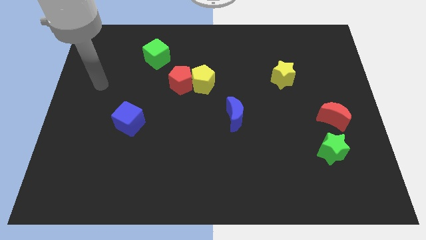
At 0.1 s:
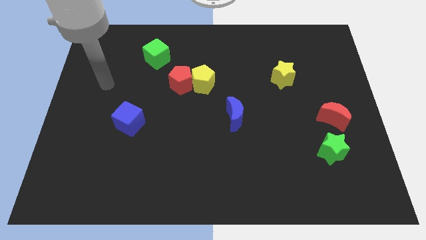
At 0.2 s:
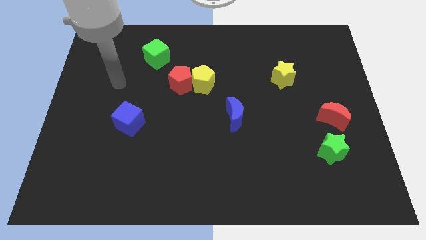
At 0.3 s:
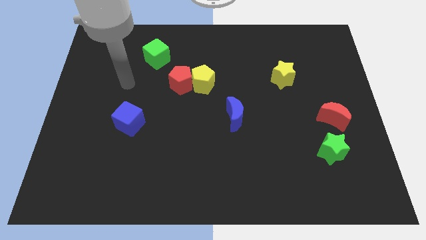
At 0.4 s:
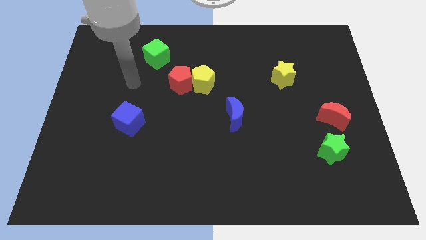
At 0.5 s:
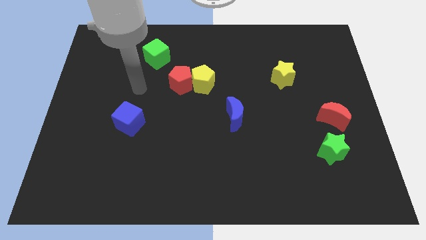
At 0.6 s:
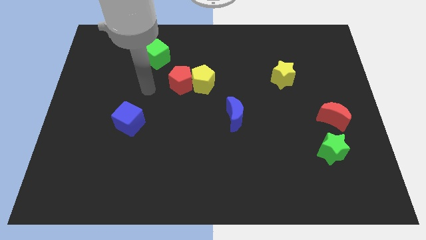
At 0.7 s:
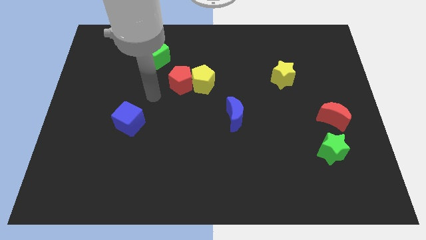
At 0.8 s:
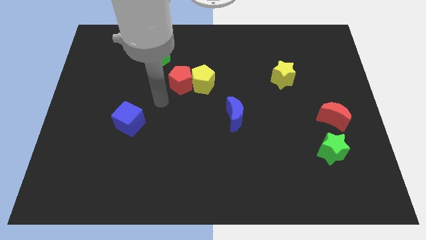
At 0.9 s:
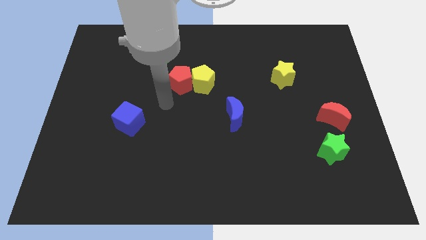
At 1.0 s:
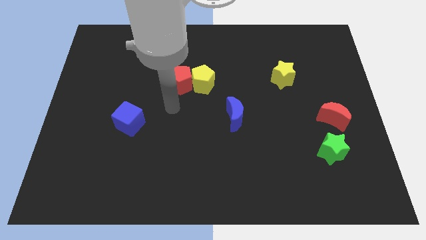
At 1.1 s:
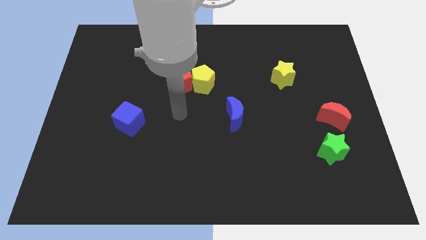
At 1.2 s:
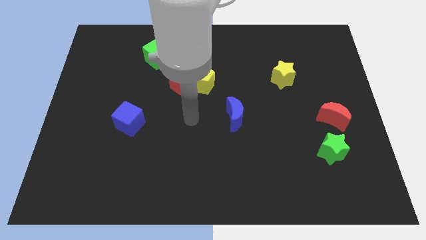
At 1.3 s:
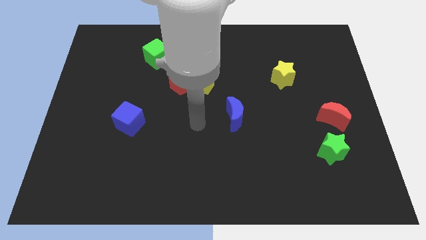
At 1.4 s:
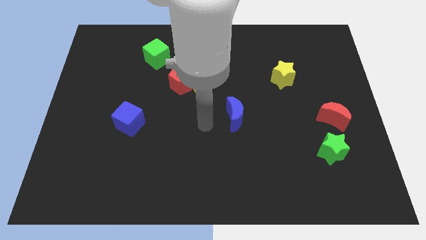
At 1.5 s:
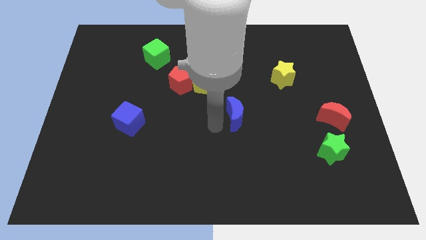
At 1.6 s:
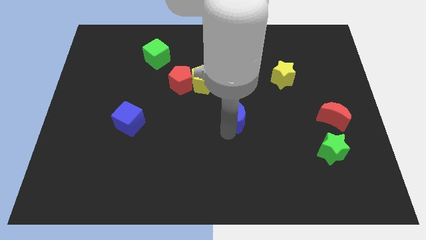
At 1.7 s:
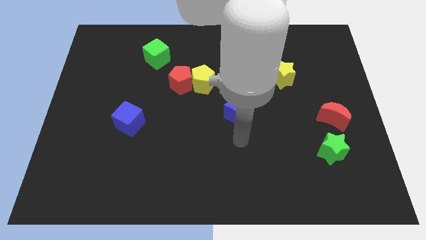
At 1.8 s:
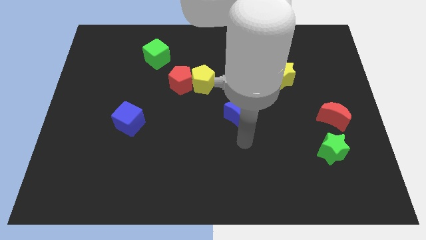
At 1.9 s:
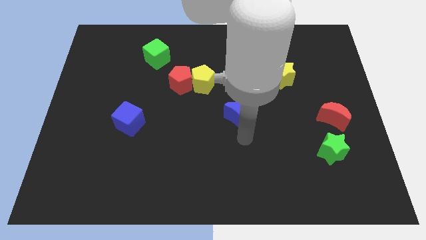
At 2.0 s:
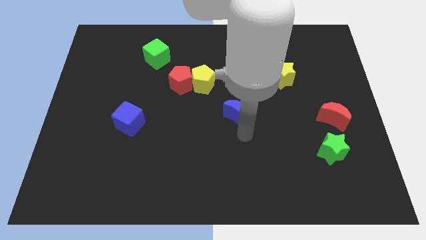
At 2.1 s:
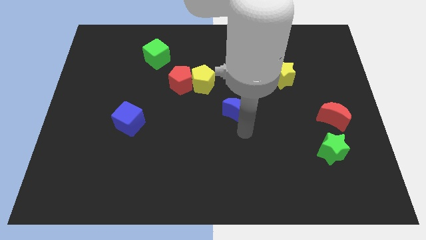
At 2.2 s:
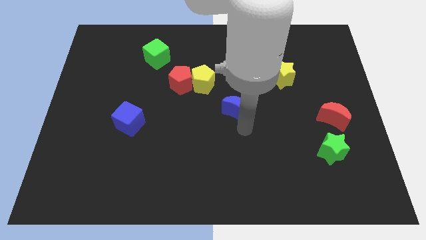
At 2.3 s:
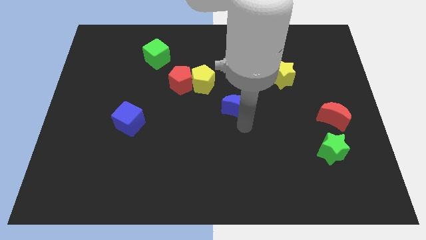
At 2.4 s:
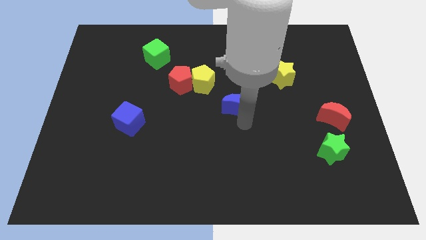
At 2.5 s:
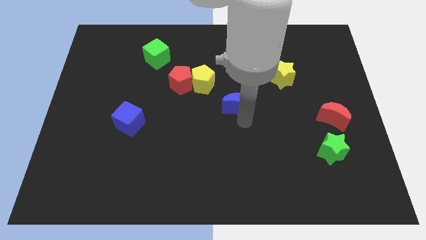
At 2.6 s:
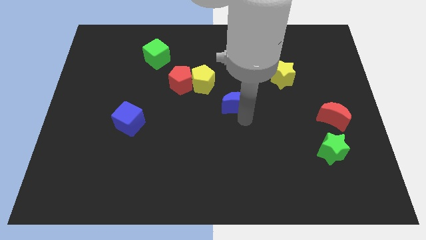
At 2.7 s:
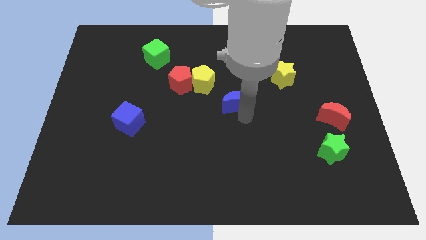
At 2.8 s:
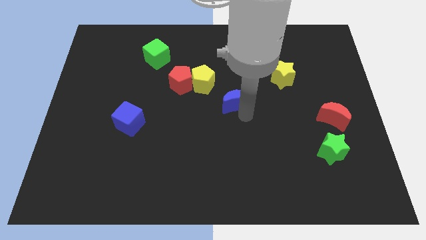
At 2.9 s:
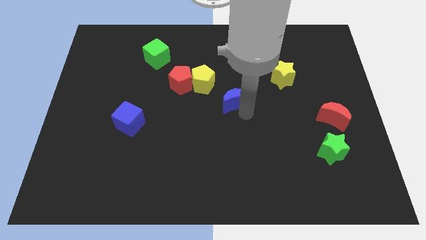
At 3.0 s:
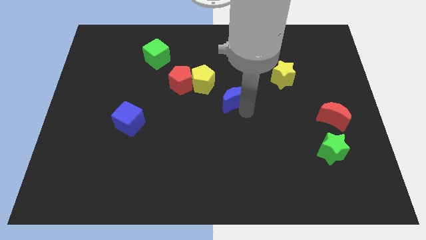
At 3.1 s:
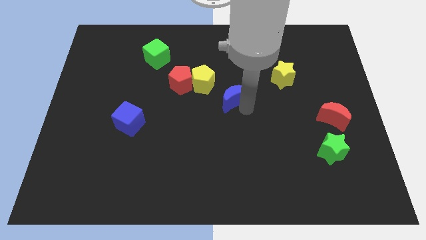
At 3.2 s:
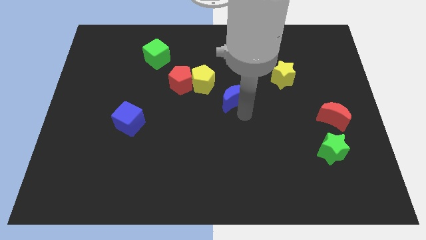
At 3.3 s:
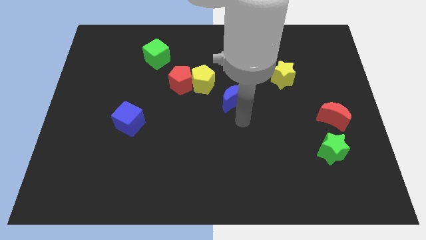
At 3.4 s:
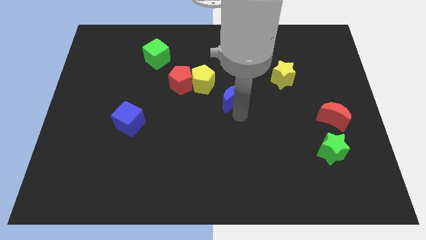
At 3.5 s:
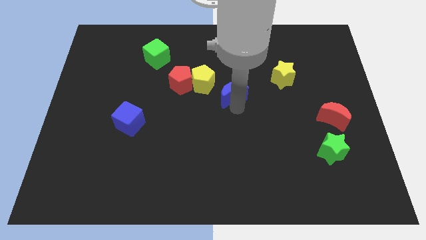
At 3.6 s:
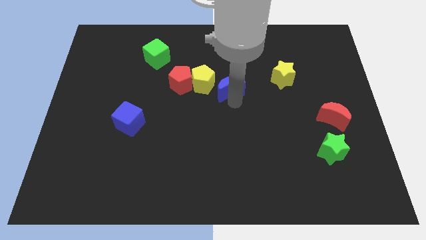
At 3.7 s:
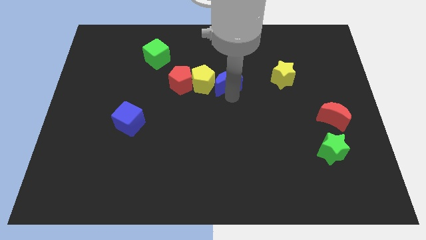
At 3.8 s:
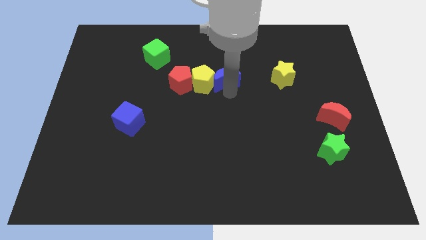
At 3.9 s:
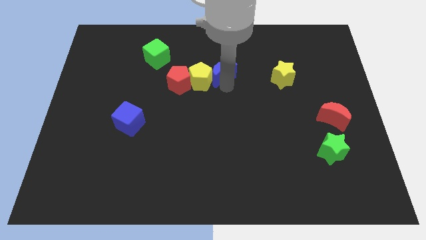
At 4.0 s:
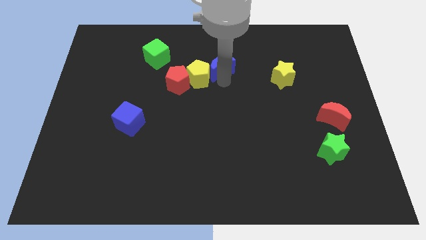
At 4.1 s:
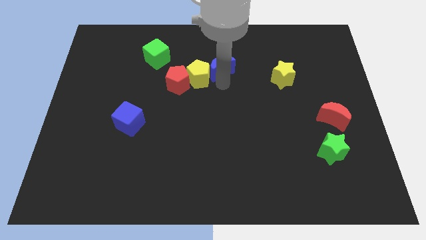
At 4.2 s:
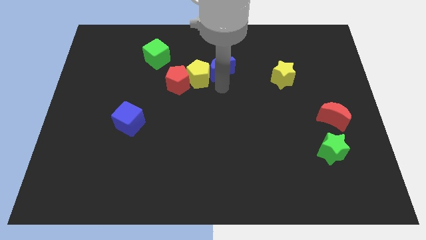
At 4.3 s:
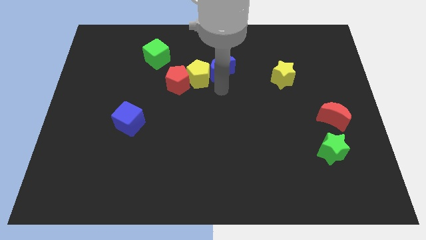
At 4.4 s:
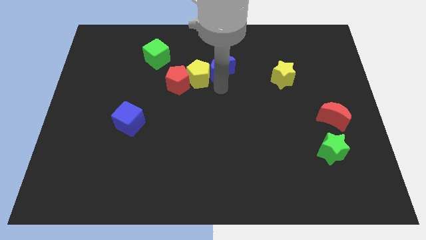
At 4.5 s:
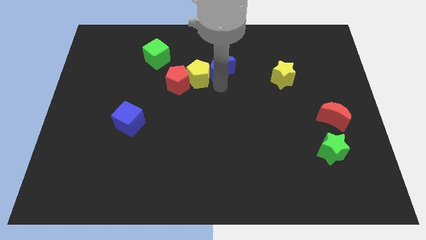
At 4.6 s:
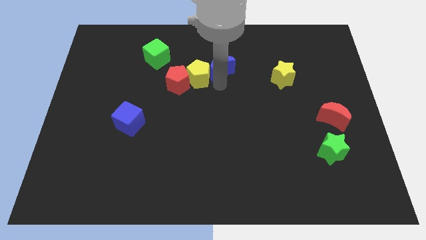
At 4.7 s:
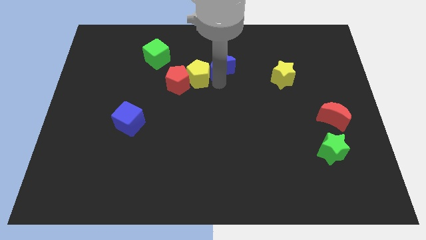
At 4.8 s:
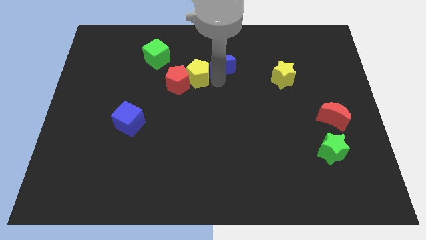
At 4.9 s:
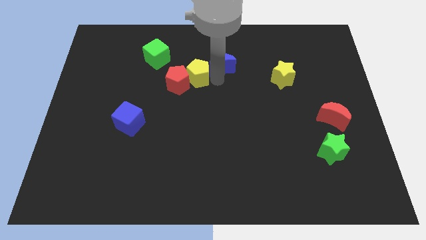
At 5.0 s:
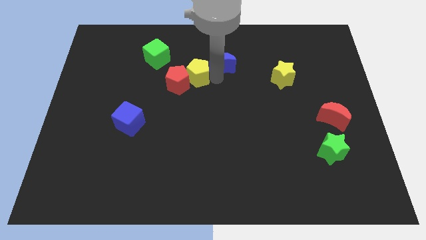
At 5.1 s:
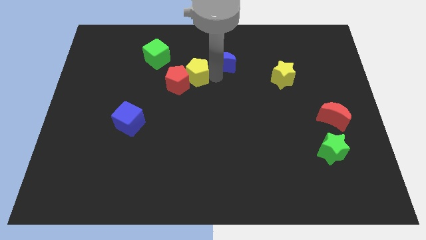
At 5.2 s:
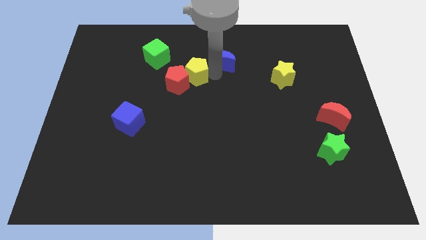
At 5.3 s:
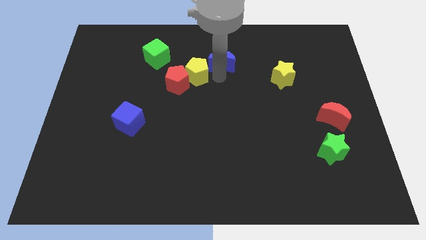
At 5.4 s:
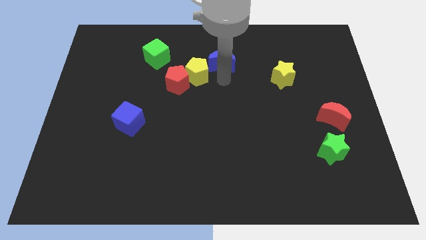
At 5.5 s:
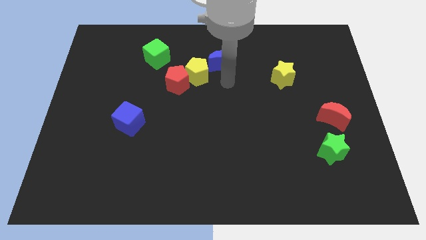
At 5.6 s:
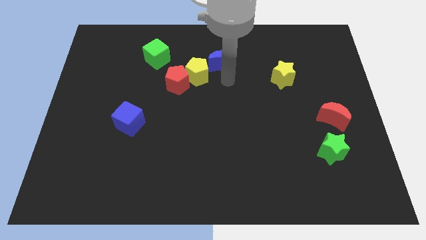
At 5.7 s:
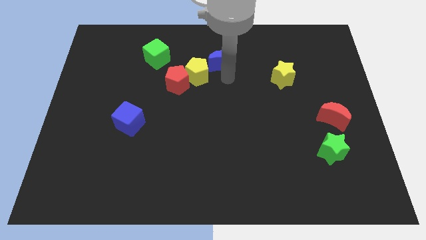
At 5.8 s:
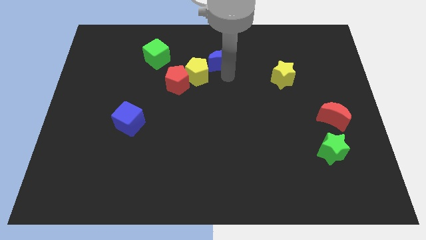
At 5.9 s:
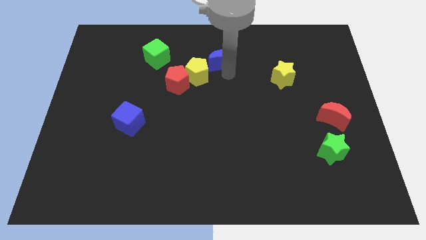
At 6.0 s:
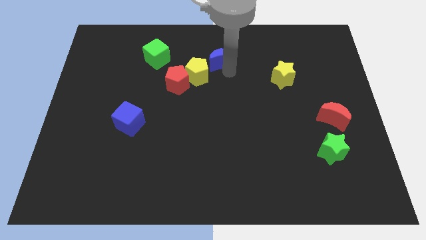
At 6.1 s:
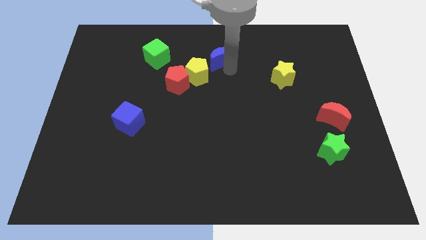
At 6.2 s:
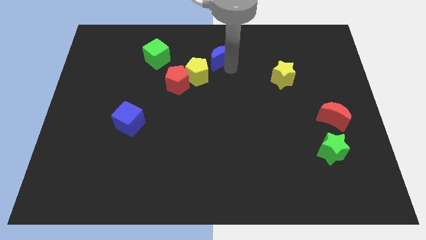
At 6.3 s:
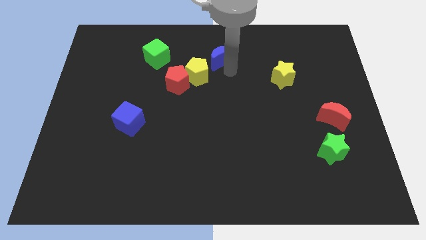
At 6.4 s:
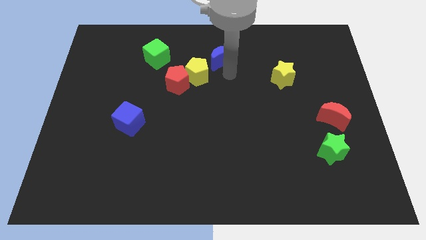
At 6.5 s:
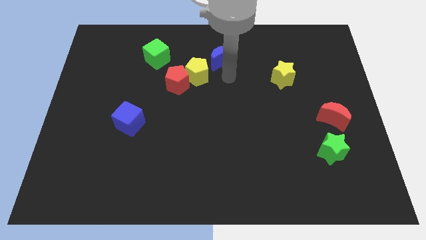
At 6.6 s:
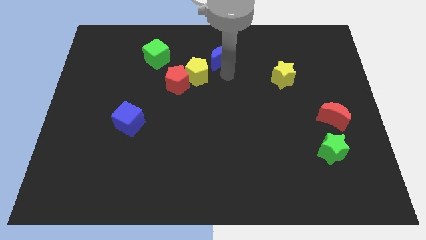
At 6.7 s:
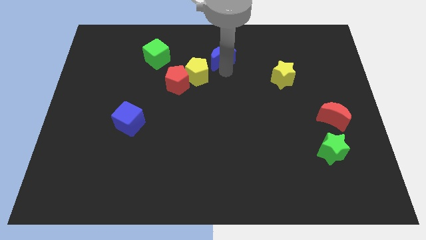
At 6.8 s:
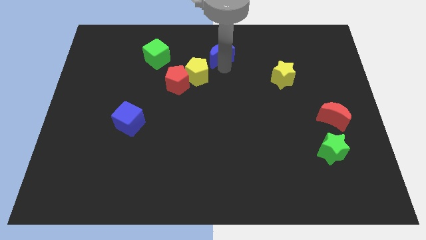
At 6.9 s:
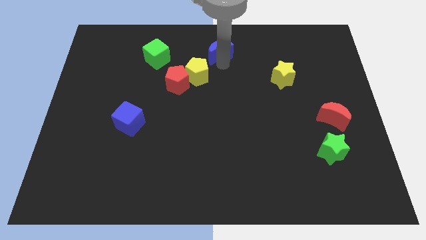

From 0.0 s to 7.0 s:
push the blue moon to the top
